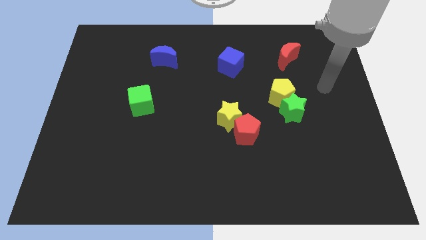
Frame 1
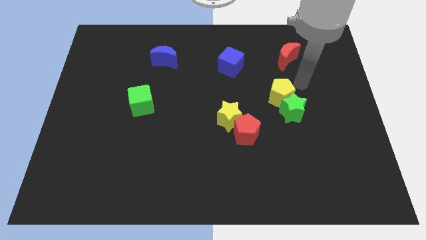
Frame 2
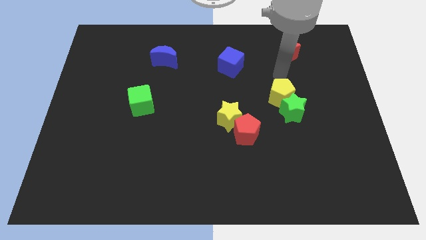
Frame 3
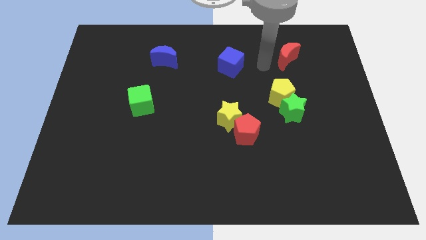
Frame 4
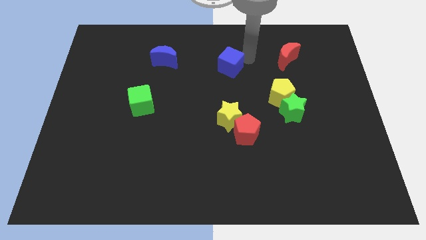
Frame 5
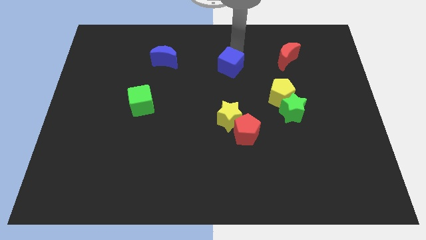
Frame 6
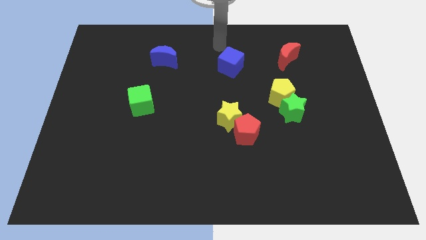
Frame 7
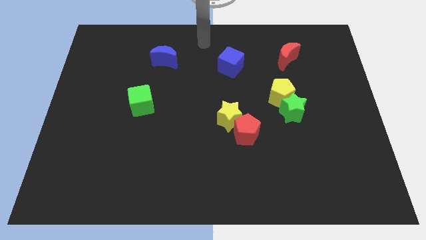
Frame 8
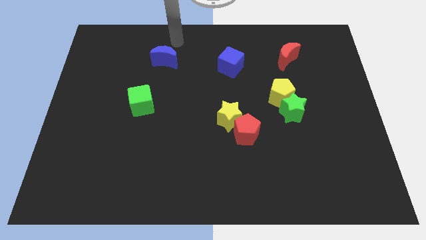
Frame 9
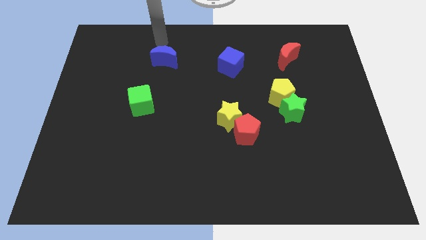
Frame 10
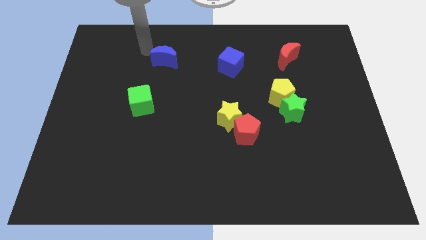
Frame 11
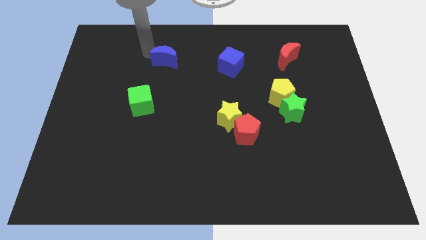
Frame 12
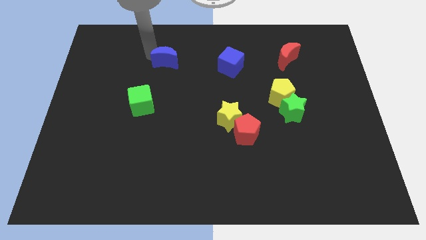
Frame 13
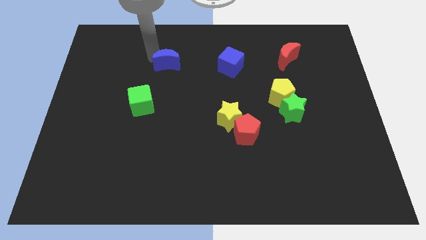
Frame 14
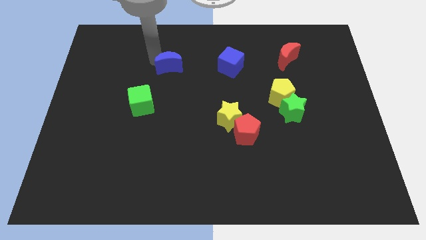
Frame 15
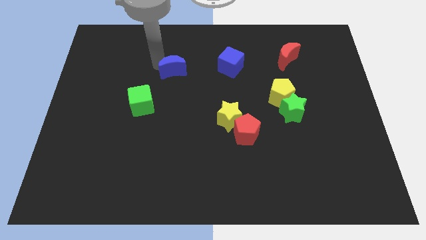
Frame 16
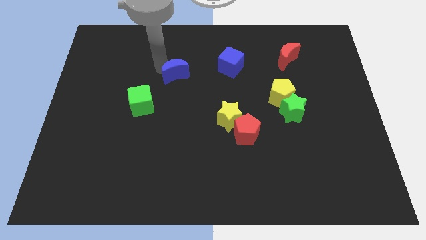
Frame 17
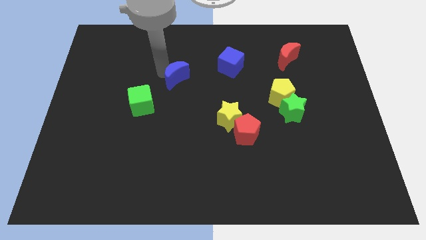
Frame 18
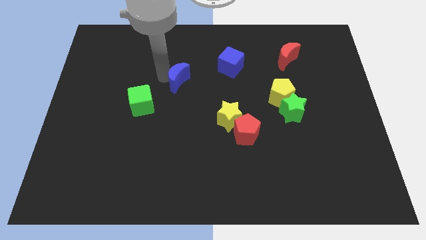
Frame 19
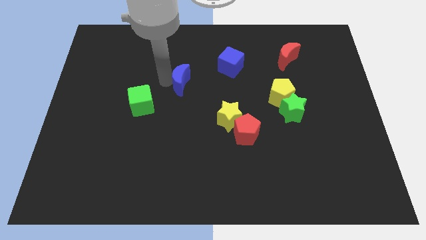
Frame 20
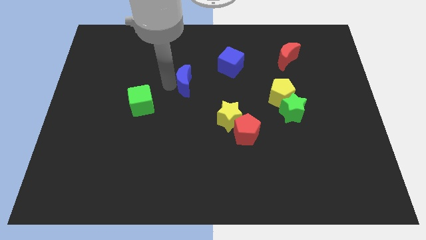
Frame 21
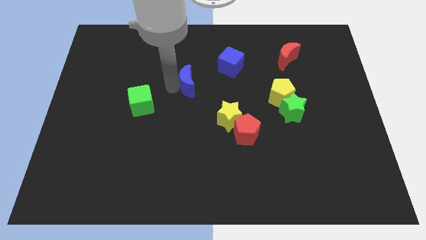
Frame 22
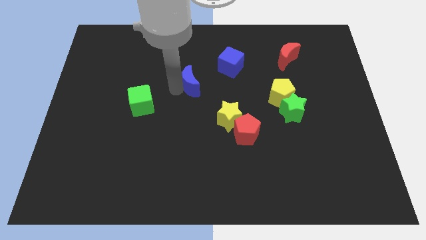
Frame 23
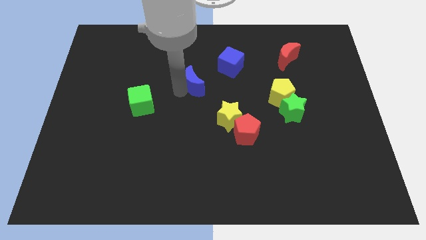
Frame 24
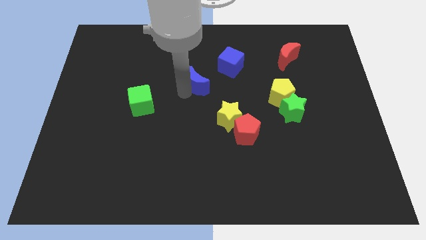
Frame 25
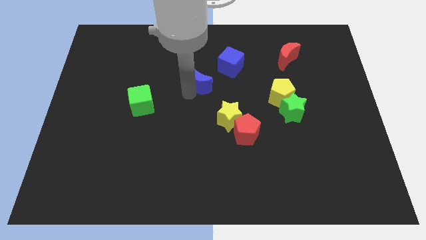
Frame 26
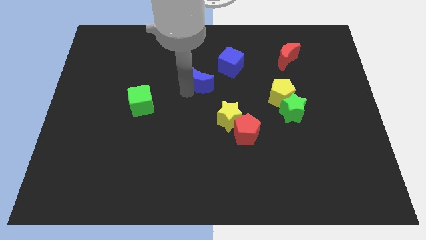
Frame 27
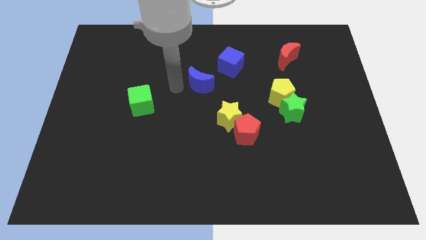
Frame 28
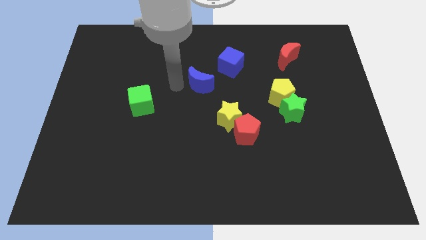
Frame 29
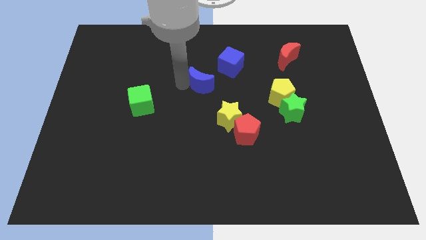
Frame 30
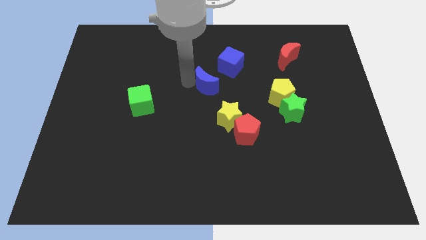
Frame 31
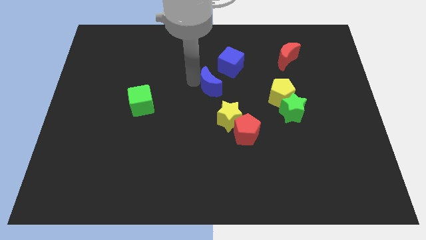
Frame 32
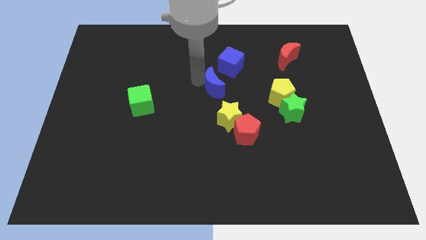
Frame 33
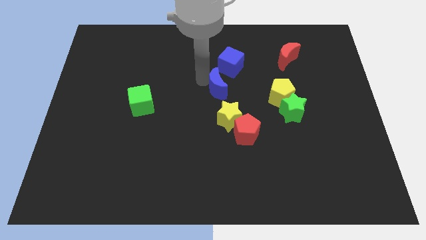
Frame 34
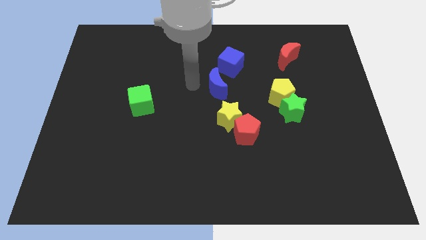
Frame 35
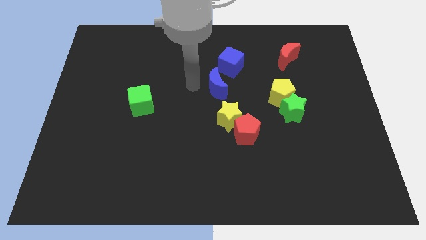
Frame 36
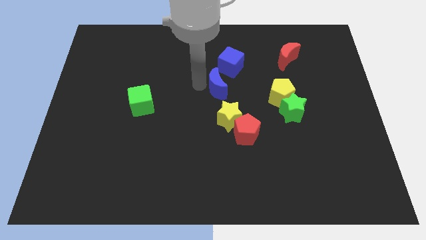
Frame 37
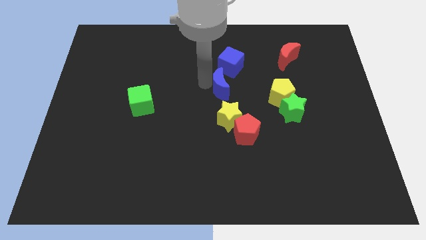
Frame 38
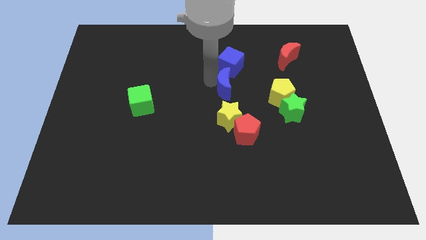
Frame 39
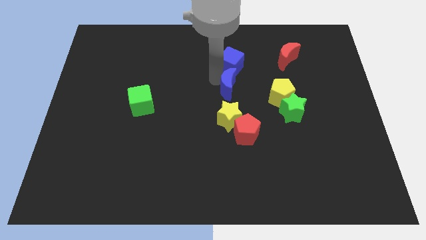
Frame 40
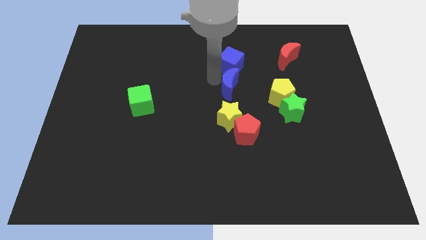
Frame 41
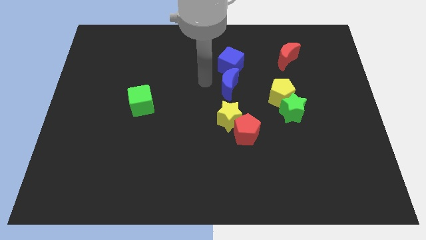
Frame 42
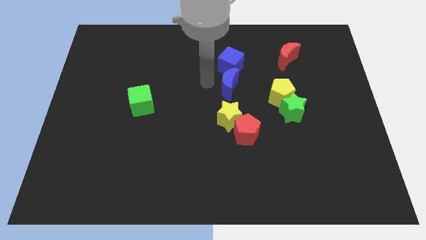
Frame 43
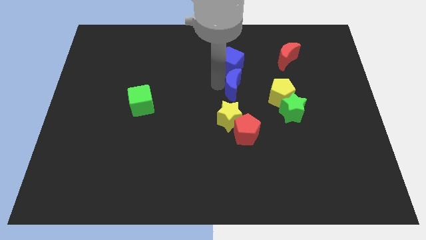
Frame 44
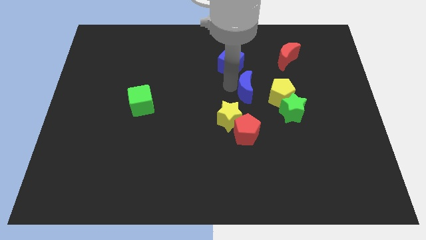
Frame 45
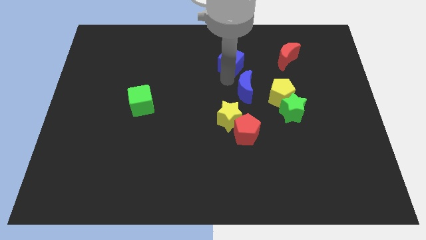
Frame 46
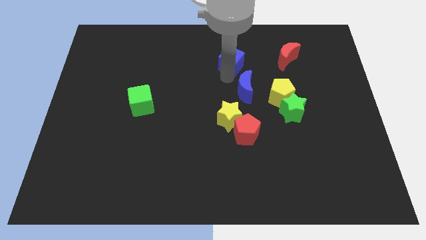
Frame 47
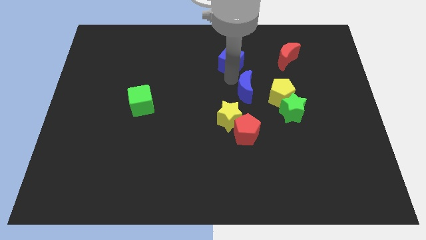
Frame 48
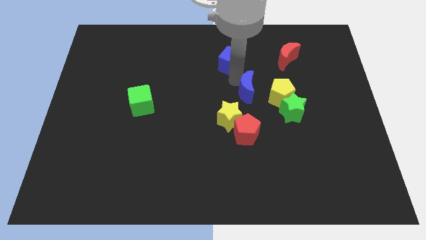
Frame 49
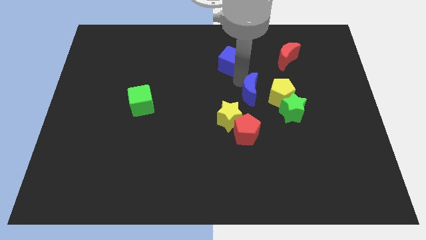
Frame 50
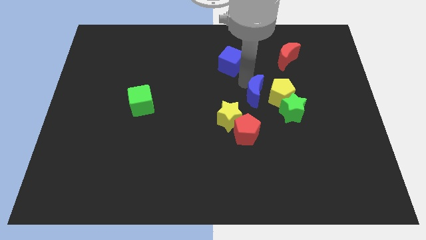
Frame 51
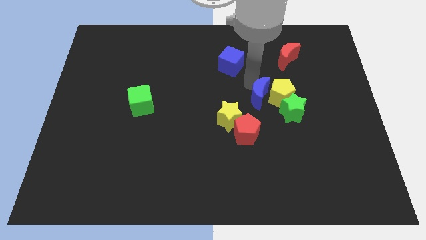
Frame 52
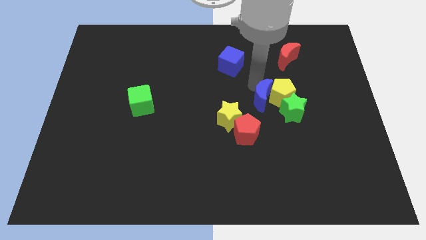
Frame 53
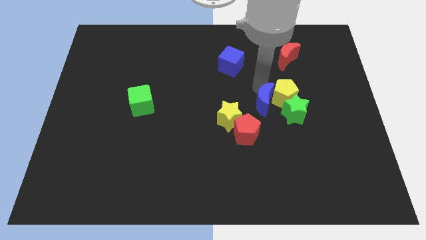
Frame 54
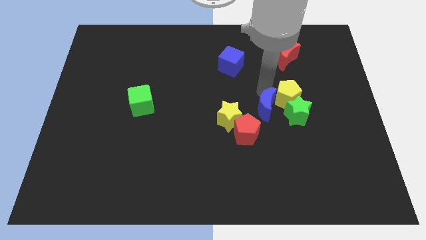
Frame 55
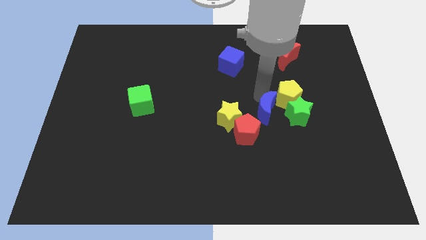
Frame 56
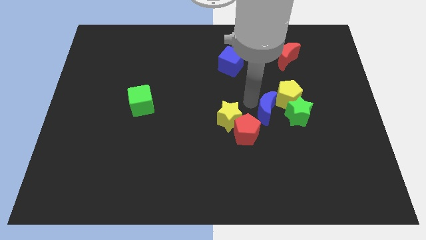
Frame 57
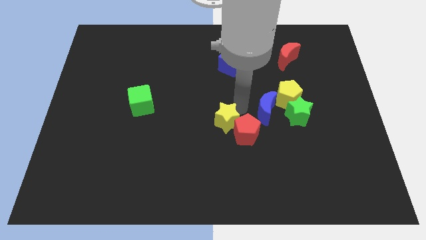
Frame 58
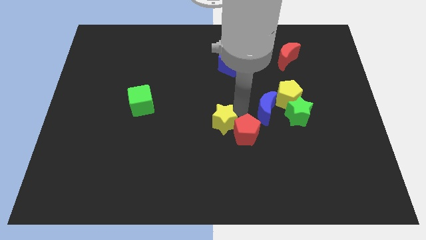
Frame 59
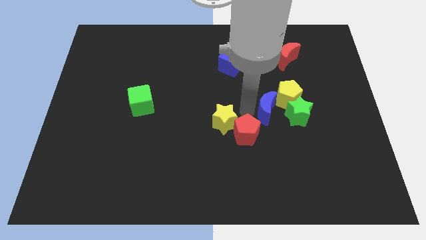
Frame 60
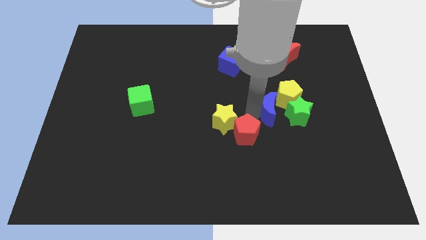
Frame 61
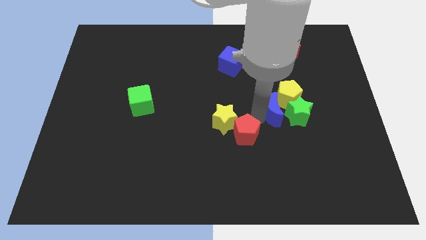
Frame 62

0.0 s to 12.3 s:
put the blue moon next to the green star
